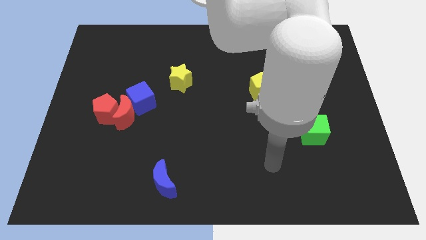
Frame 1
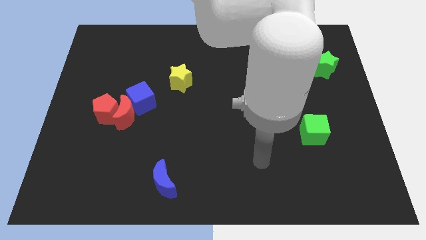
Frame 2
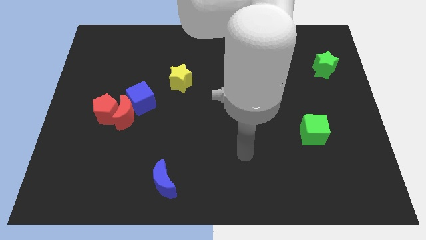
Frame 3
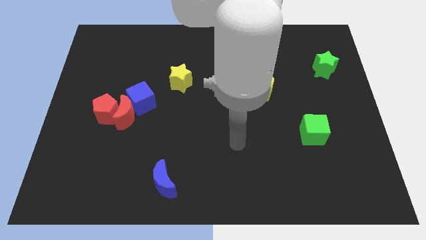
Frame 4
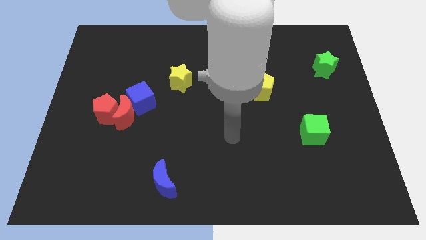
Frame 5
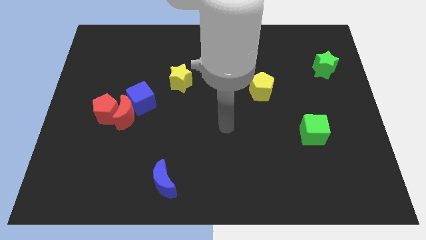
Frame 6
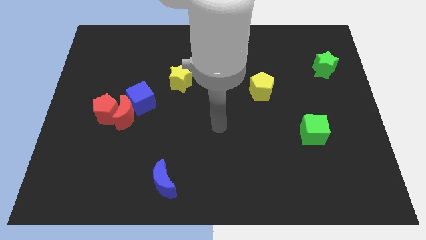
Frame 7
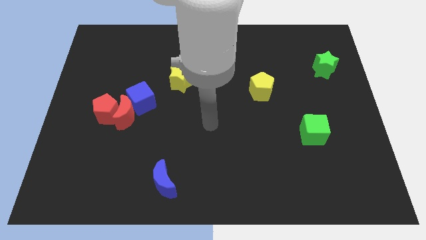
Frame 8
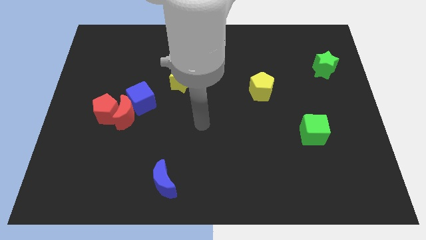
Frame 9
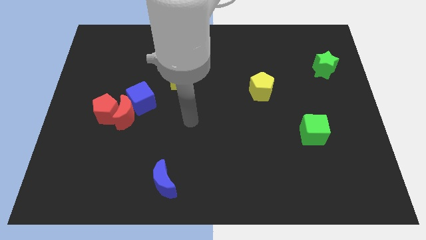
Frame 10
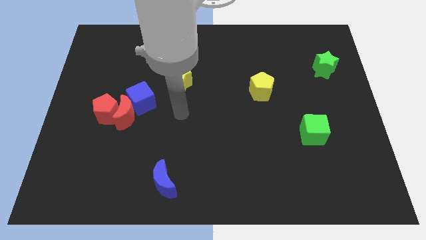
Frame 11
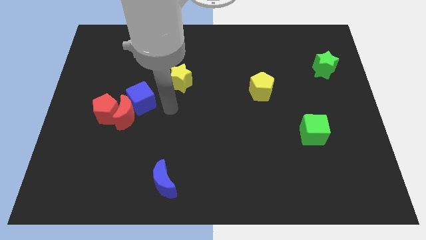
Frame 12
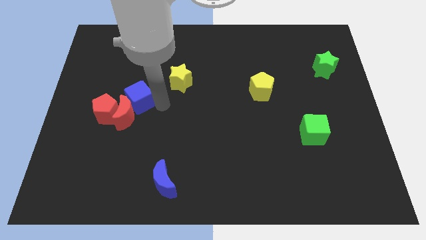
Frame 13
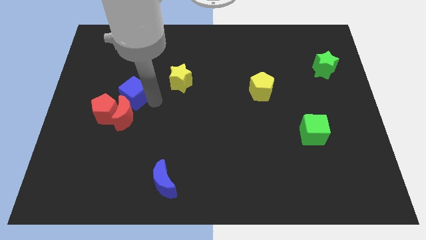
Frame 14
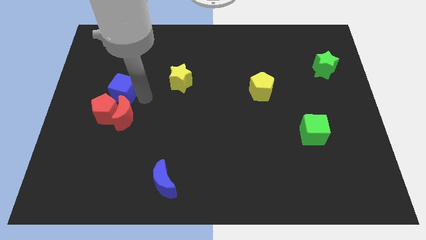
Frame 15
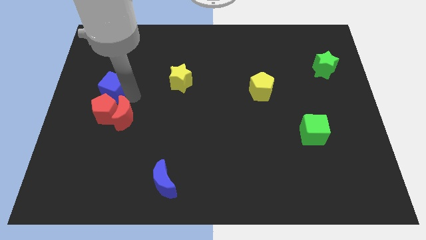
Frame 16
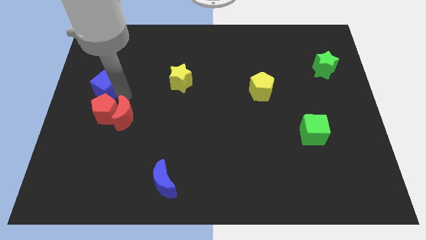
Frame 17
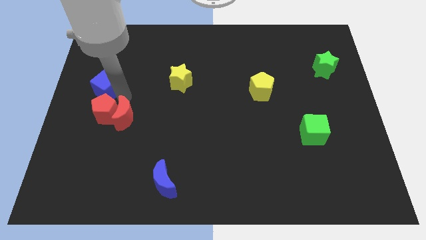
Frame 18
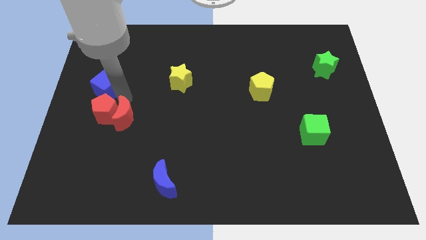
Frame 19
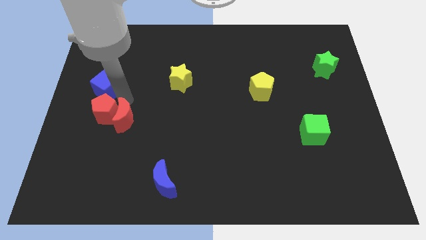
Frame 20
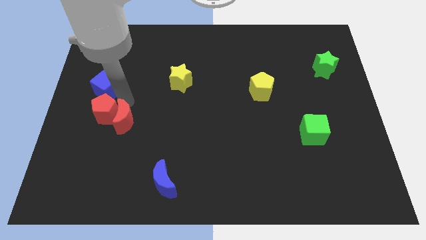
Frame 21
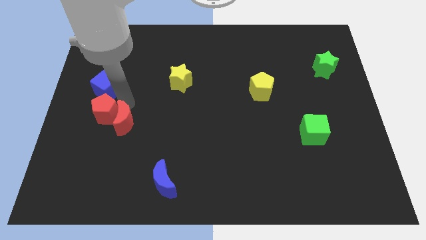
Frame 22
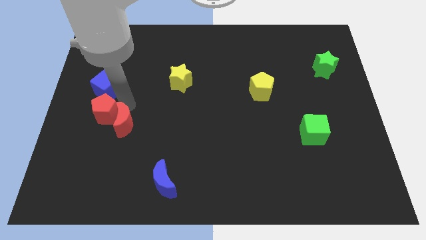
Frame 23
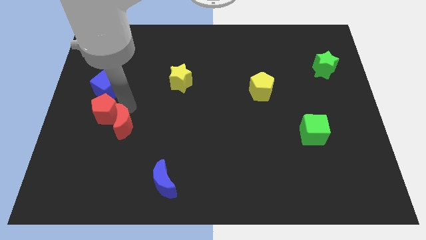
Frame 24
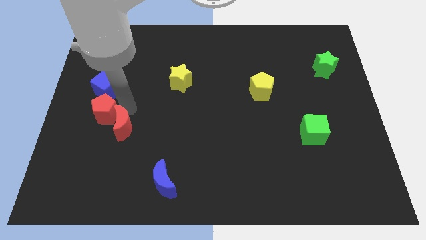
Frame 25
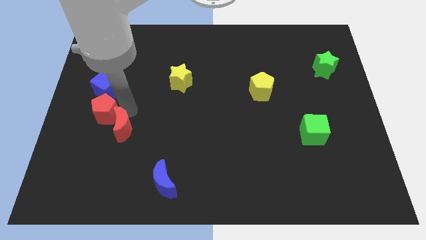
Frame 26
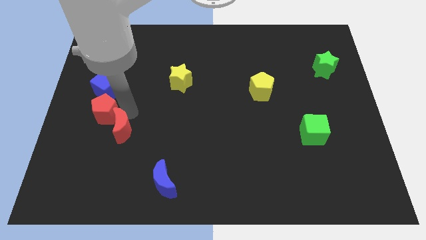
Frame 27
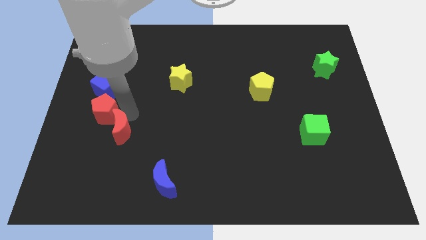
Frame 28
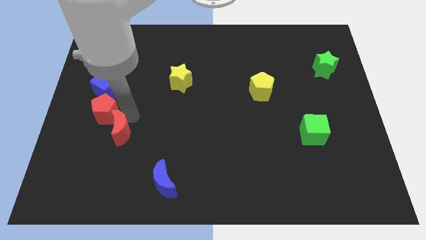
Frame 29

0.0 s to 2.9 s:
pull the red moon apart from the red pentagon and blue cube

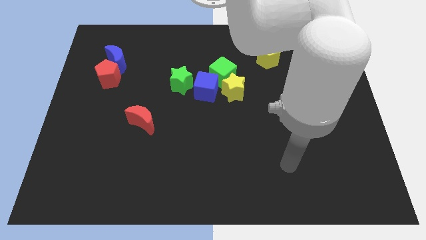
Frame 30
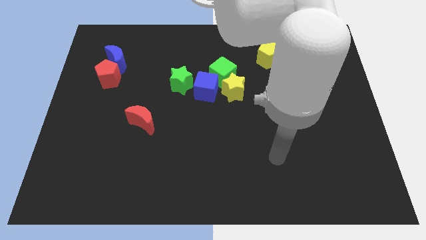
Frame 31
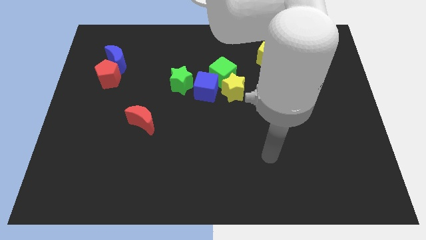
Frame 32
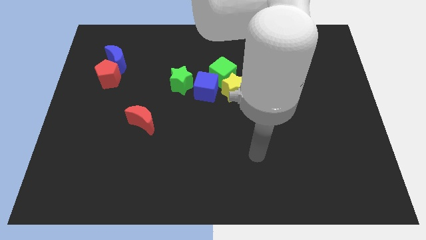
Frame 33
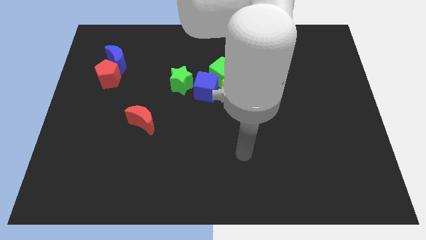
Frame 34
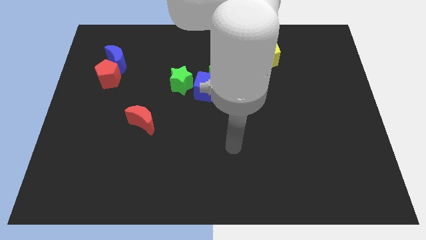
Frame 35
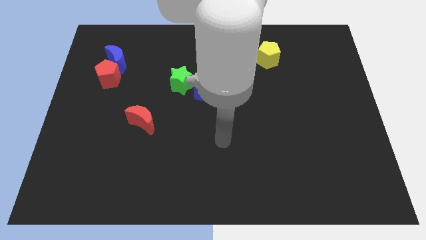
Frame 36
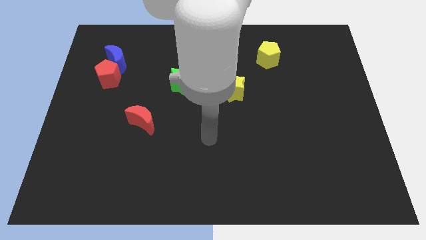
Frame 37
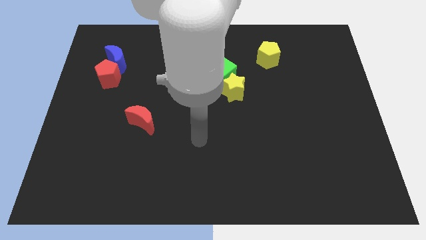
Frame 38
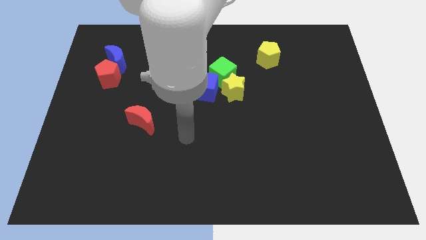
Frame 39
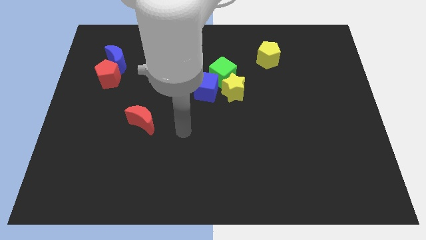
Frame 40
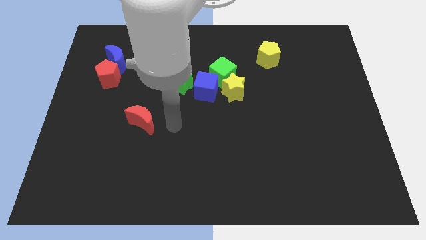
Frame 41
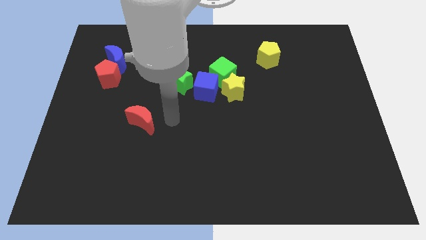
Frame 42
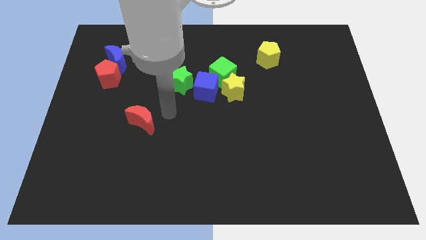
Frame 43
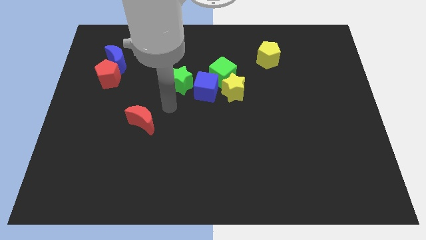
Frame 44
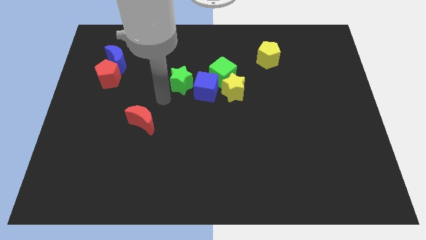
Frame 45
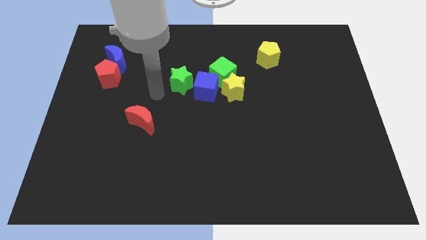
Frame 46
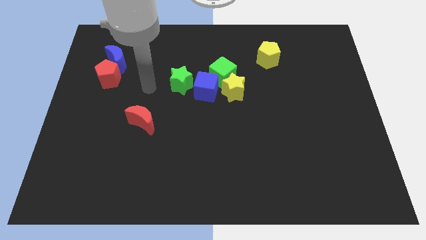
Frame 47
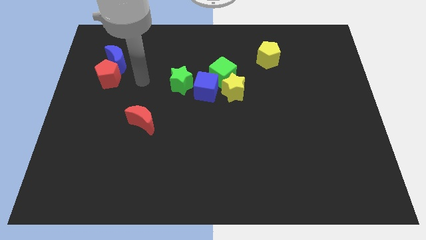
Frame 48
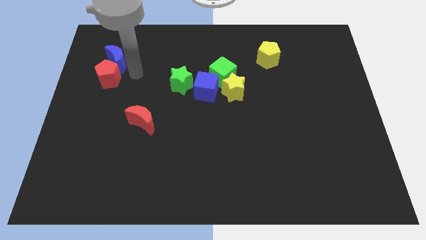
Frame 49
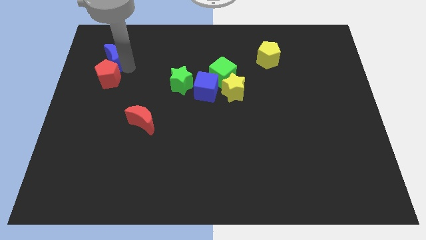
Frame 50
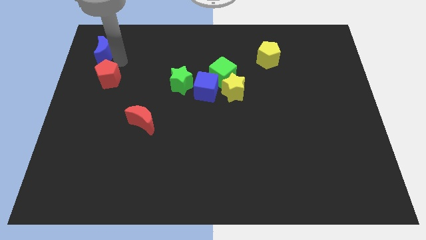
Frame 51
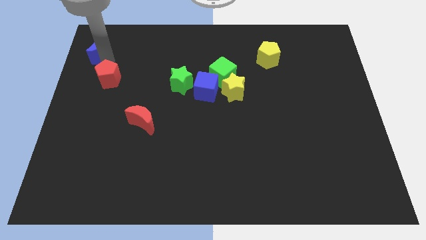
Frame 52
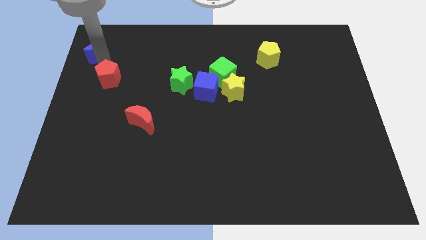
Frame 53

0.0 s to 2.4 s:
separate the red pentagon from the blue moon

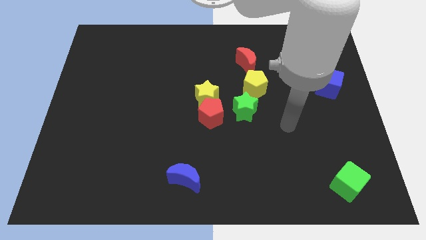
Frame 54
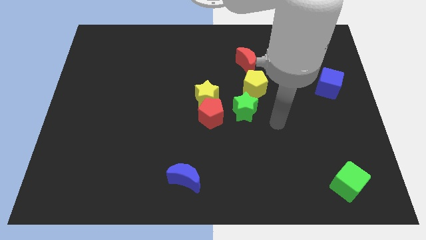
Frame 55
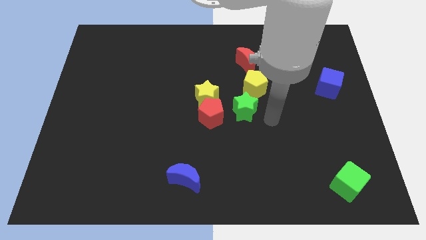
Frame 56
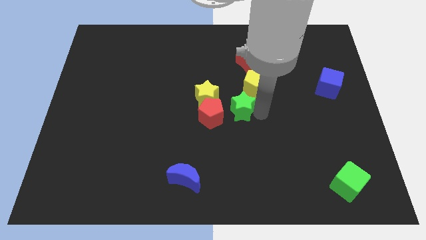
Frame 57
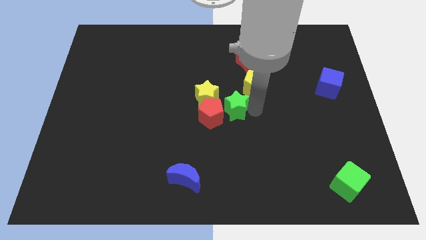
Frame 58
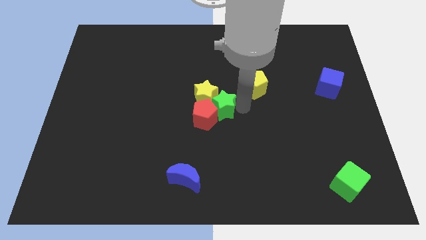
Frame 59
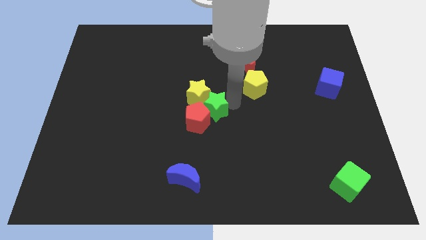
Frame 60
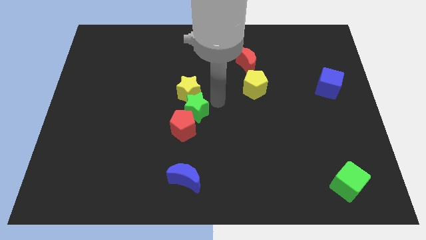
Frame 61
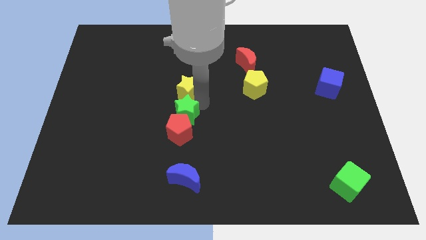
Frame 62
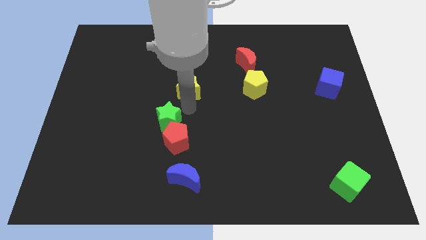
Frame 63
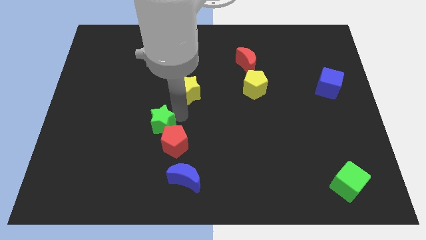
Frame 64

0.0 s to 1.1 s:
pull the red pentagon apart from the yellow star and green star

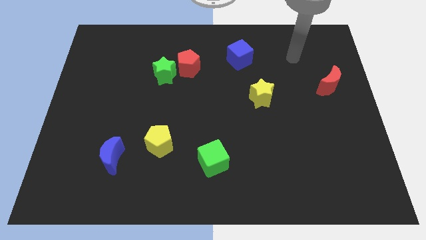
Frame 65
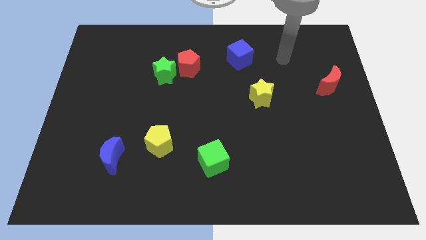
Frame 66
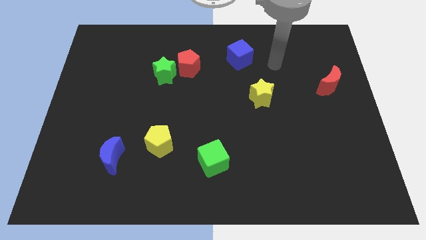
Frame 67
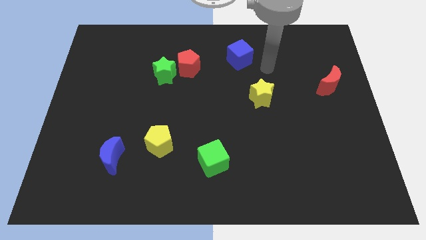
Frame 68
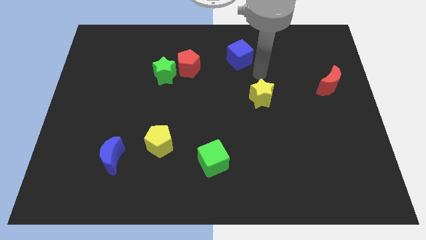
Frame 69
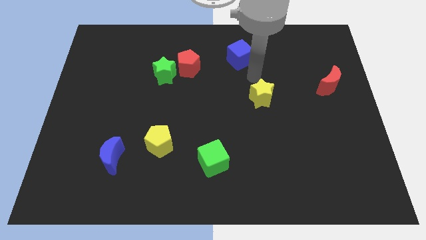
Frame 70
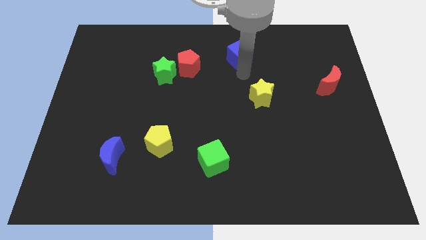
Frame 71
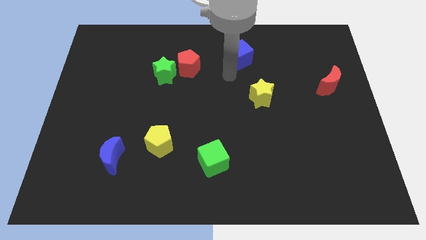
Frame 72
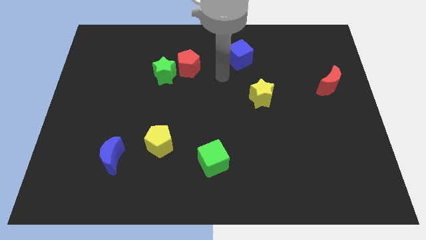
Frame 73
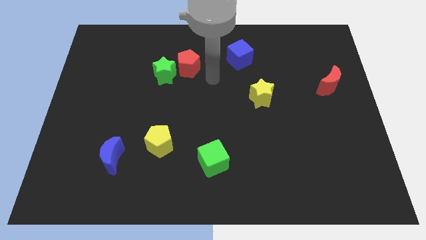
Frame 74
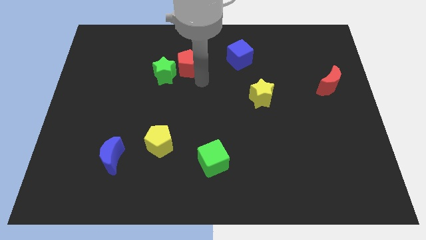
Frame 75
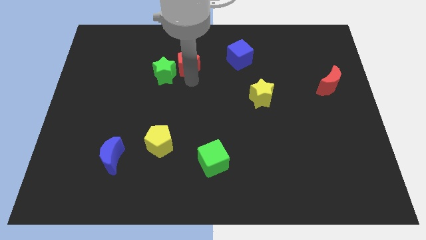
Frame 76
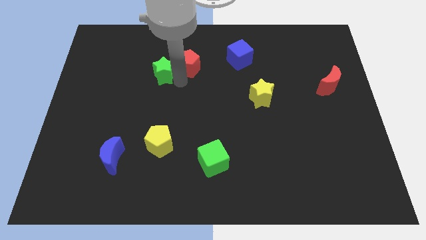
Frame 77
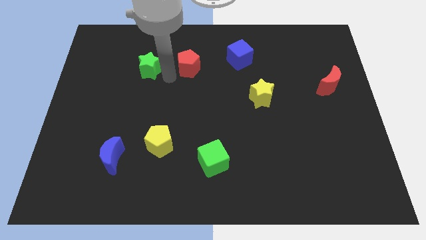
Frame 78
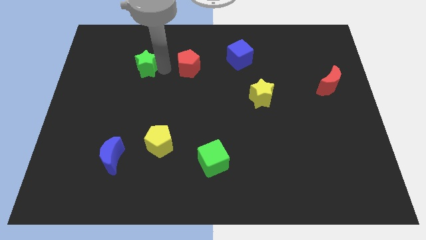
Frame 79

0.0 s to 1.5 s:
move the red pentagon away from the green star

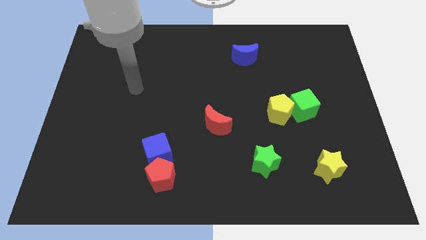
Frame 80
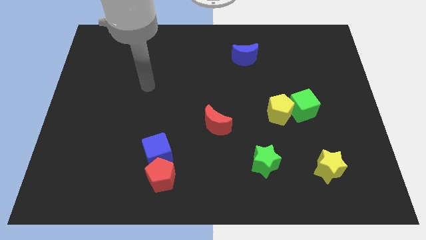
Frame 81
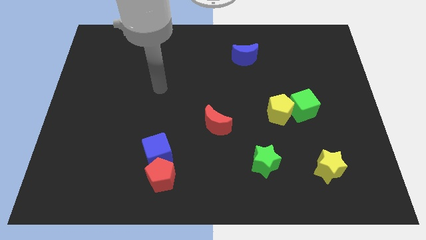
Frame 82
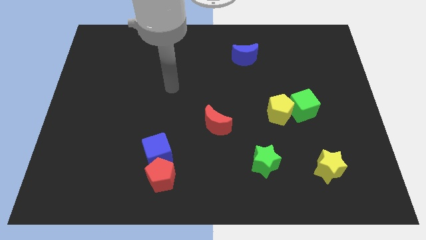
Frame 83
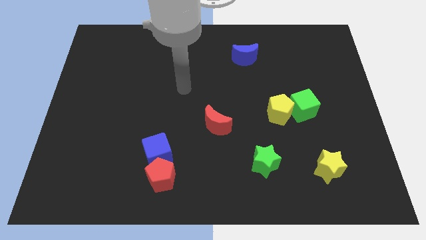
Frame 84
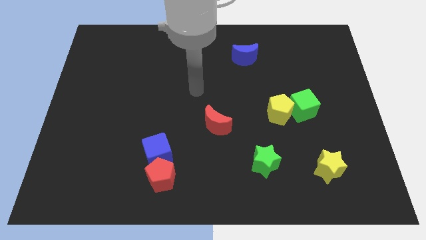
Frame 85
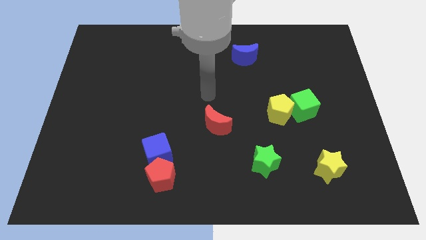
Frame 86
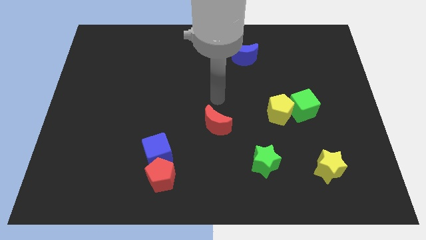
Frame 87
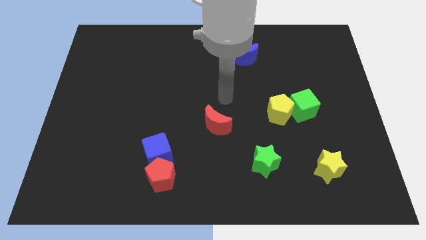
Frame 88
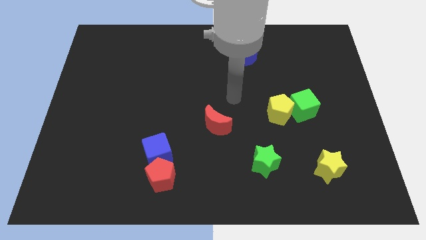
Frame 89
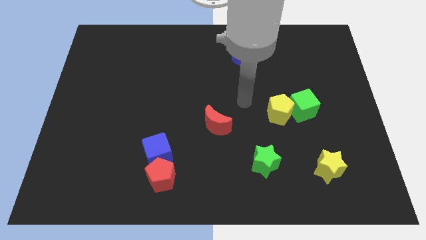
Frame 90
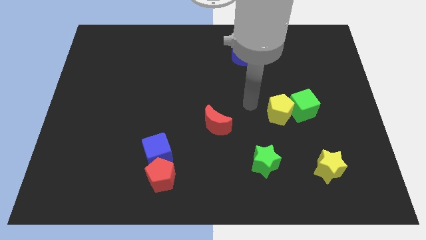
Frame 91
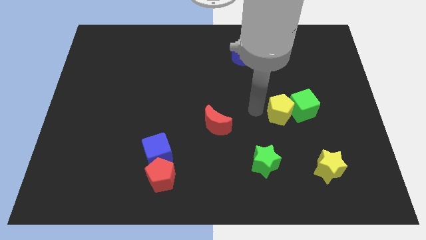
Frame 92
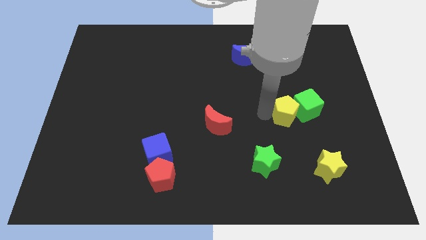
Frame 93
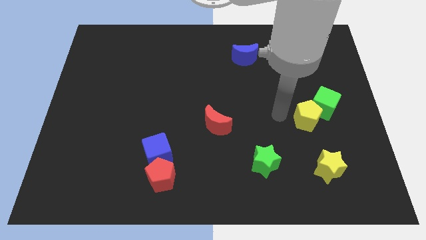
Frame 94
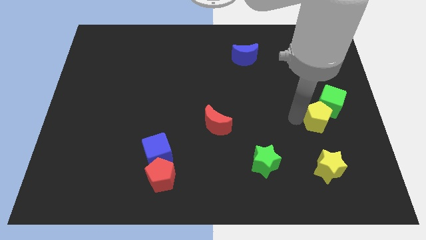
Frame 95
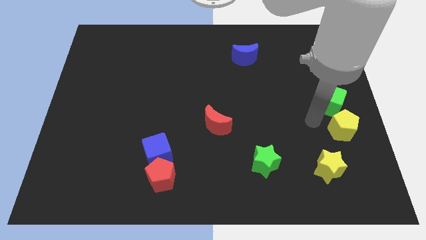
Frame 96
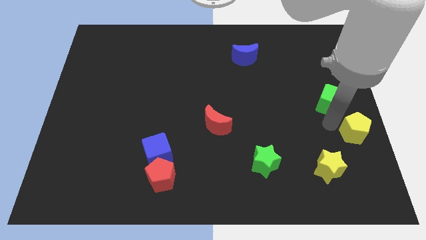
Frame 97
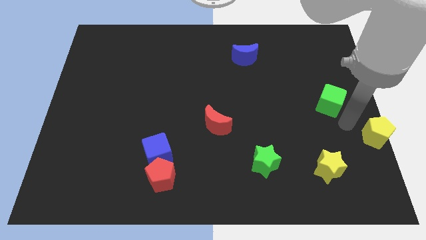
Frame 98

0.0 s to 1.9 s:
move the green cube away from the yellow pentagon
